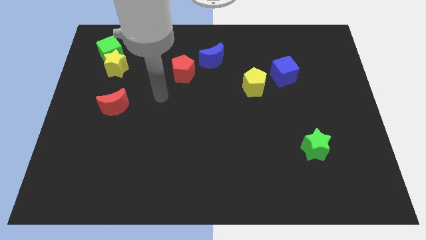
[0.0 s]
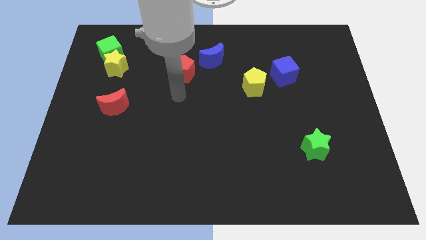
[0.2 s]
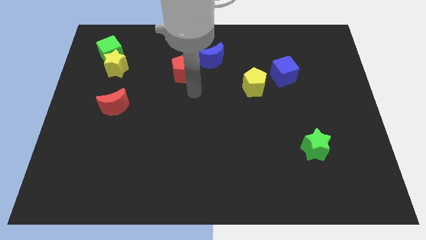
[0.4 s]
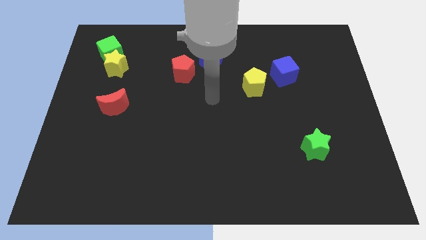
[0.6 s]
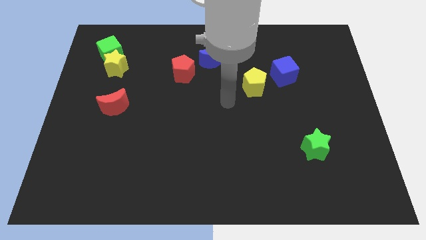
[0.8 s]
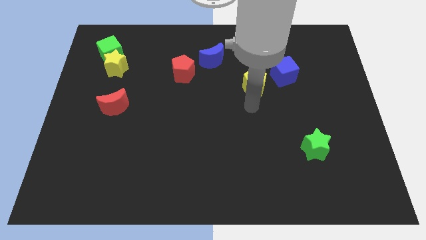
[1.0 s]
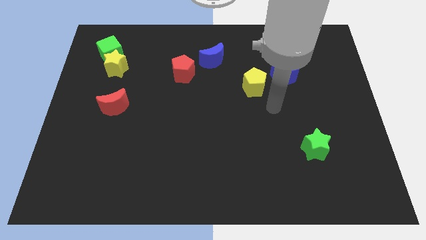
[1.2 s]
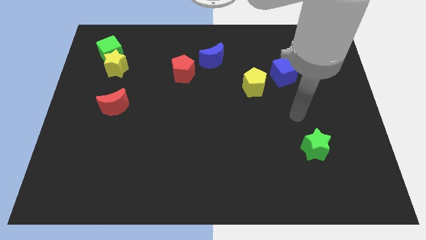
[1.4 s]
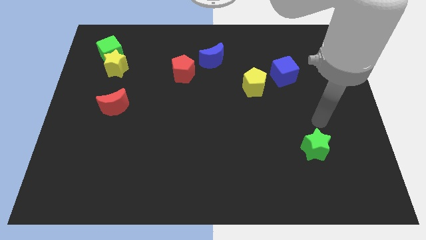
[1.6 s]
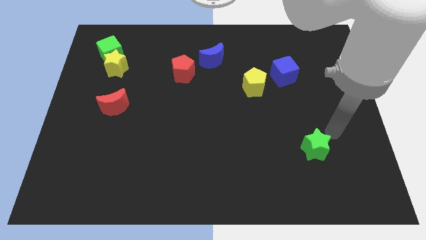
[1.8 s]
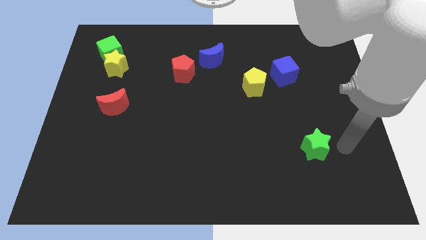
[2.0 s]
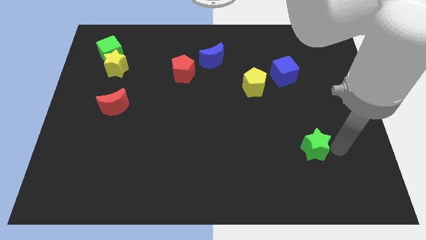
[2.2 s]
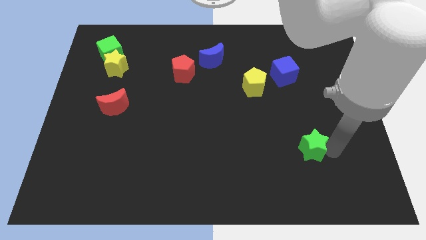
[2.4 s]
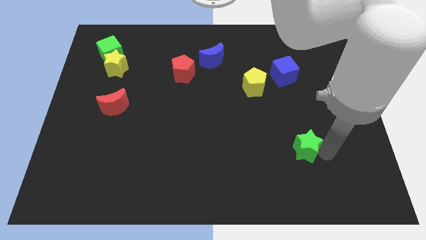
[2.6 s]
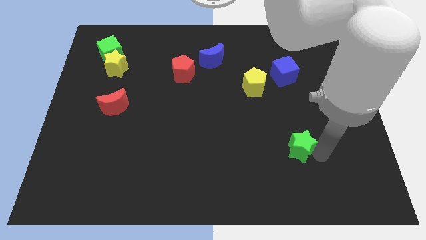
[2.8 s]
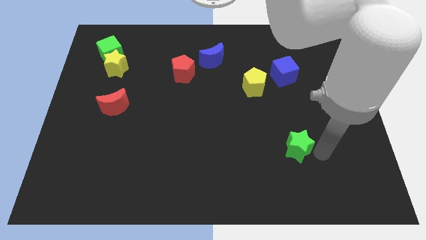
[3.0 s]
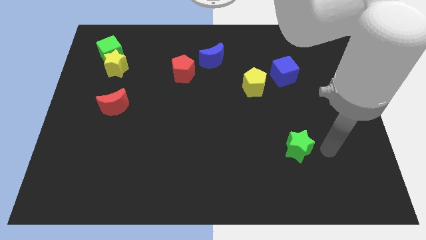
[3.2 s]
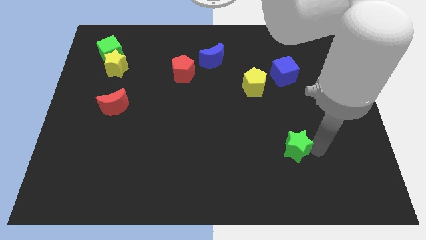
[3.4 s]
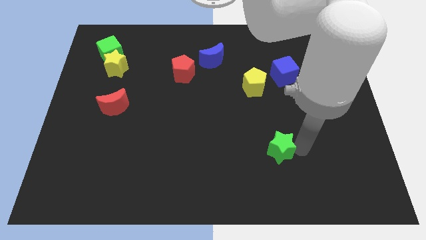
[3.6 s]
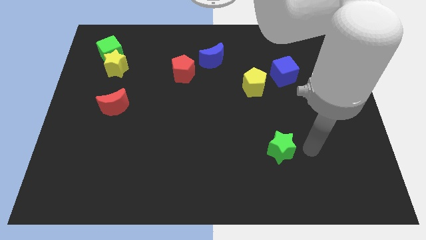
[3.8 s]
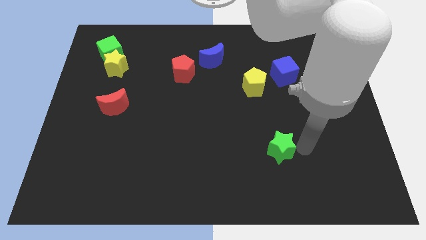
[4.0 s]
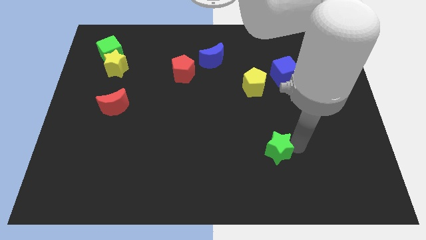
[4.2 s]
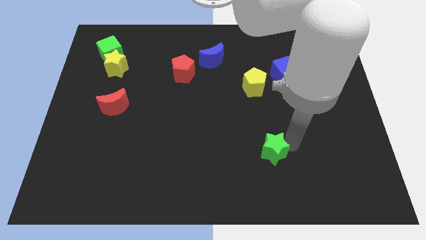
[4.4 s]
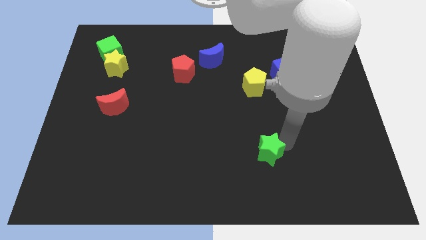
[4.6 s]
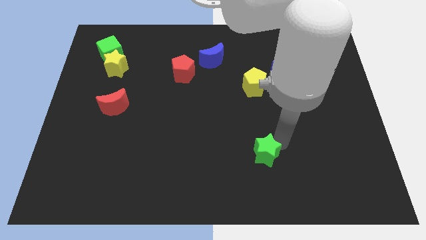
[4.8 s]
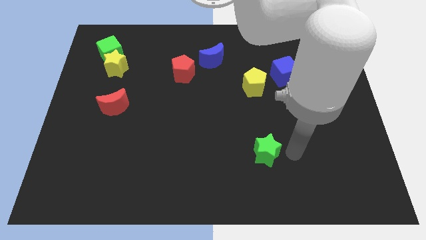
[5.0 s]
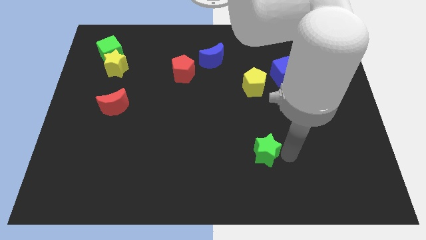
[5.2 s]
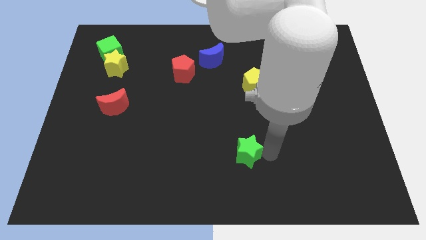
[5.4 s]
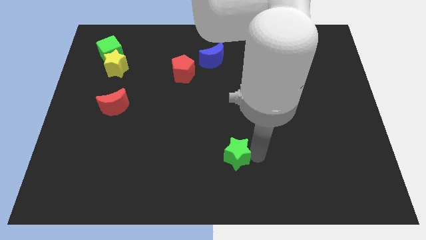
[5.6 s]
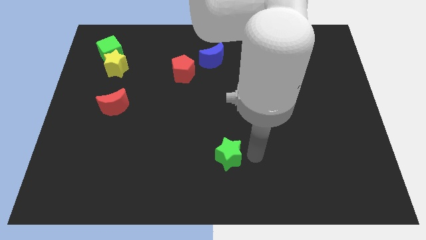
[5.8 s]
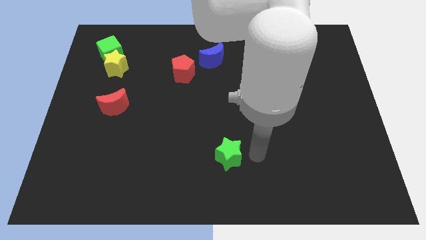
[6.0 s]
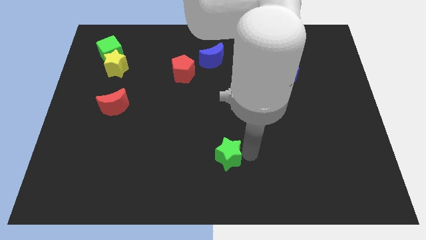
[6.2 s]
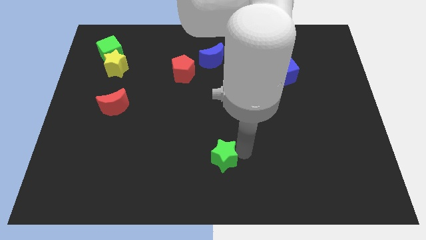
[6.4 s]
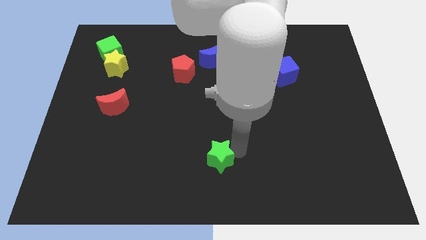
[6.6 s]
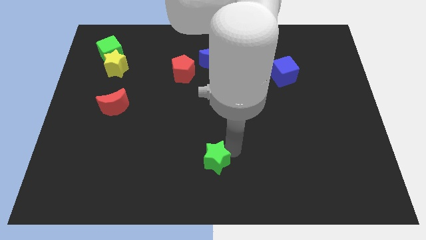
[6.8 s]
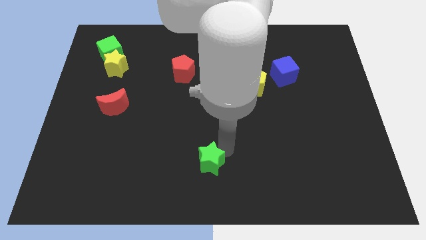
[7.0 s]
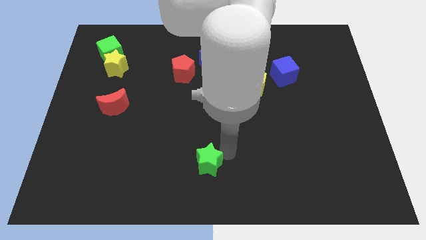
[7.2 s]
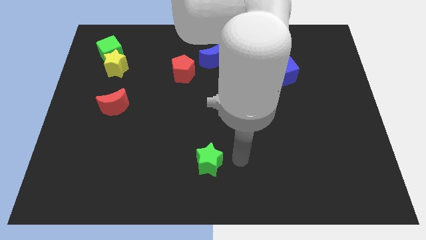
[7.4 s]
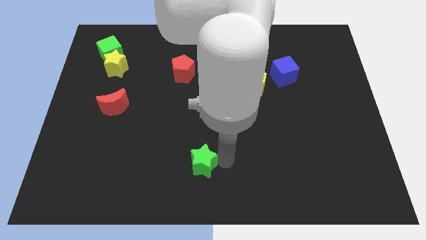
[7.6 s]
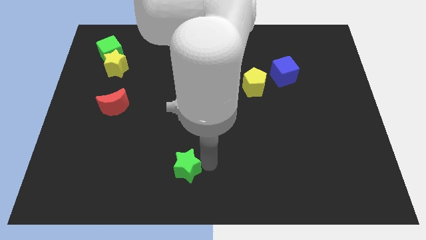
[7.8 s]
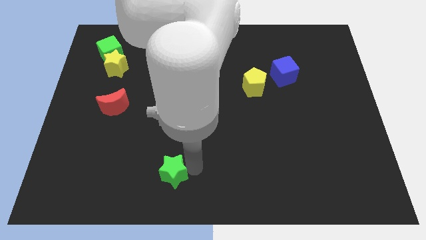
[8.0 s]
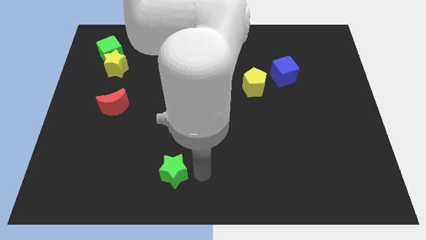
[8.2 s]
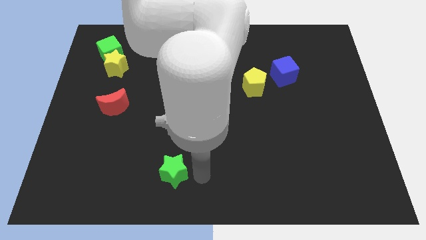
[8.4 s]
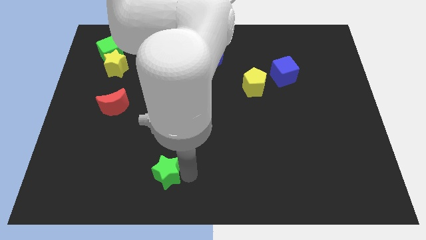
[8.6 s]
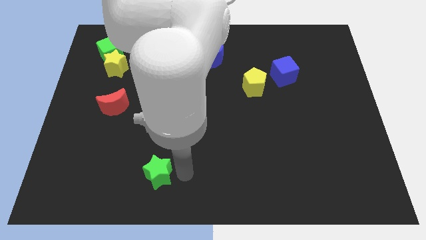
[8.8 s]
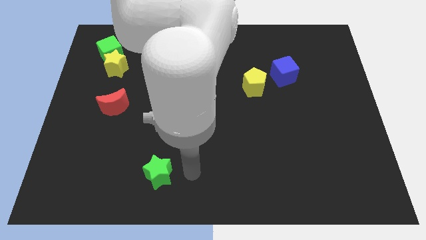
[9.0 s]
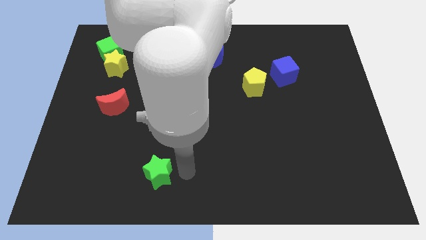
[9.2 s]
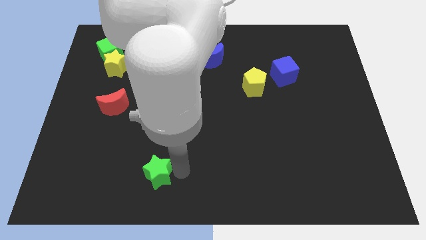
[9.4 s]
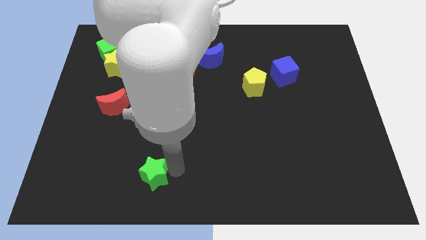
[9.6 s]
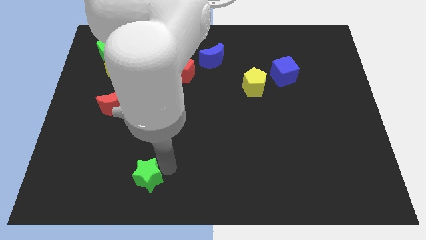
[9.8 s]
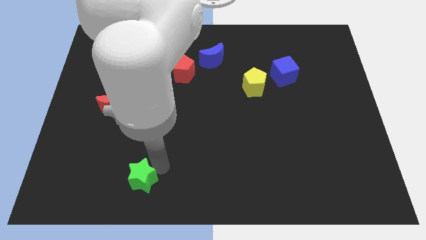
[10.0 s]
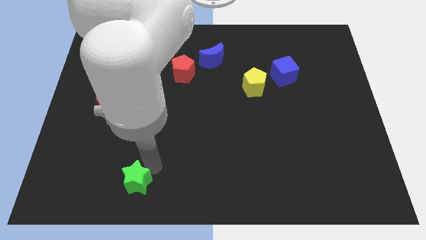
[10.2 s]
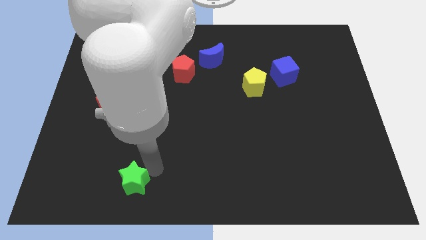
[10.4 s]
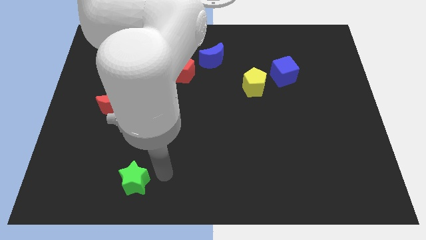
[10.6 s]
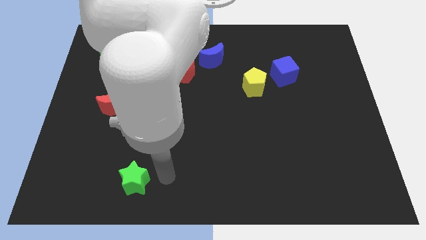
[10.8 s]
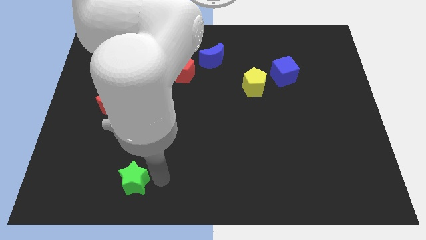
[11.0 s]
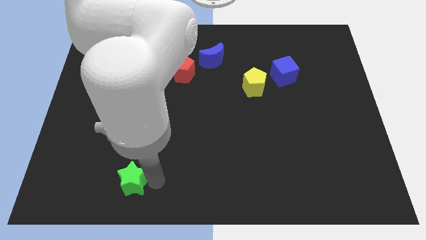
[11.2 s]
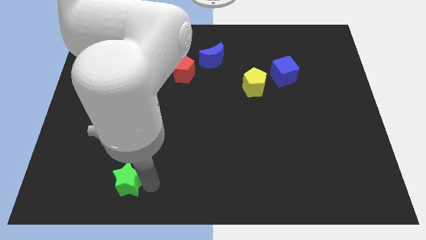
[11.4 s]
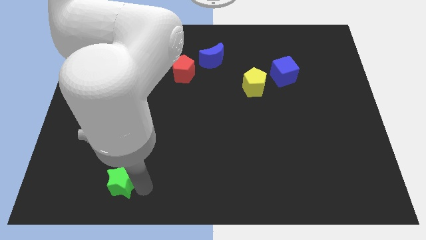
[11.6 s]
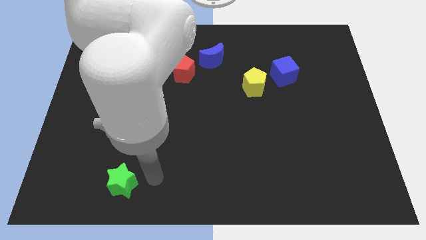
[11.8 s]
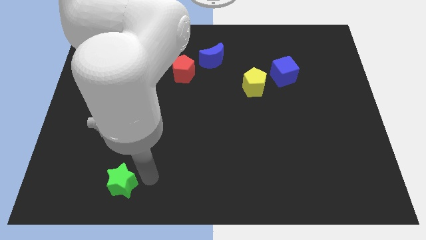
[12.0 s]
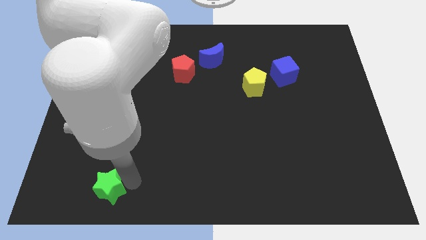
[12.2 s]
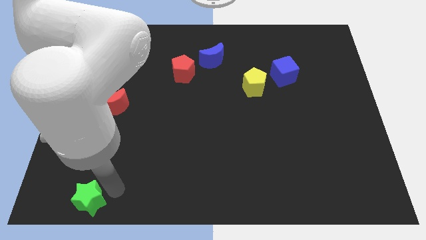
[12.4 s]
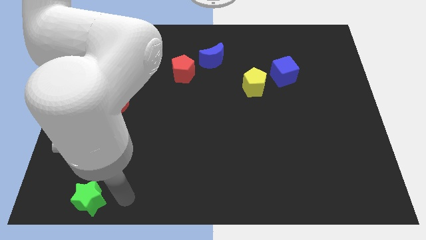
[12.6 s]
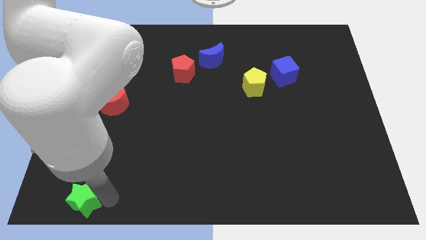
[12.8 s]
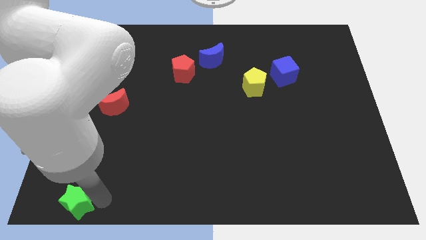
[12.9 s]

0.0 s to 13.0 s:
move the green star to the bottom left corner
